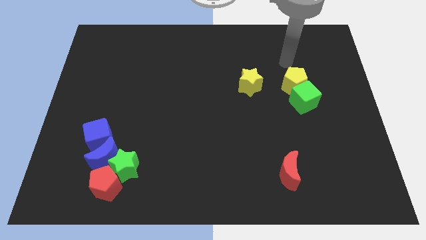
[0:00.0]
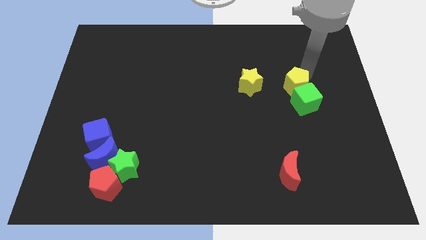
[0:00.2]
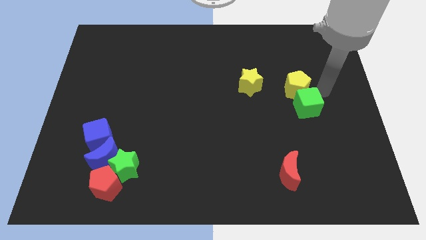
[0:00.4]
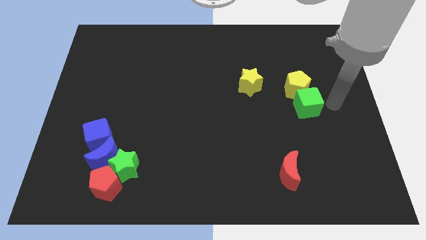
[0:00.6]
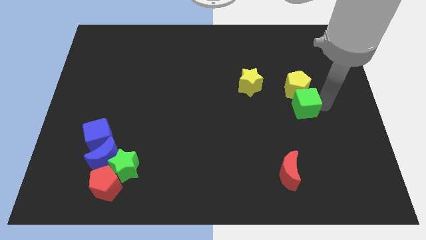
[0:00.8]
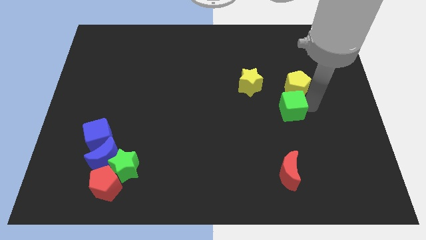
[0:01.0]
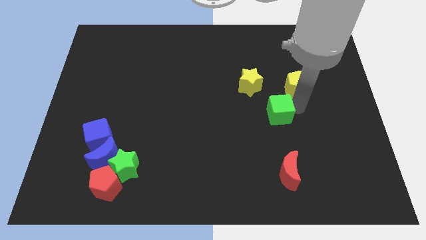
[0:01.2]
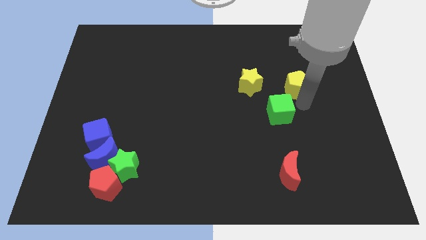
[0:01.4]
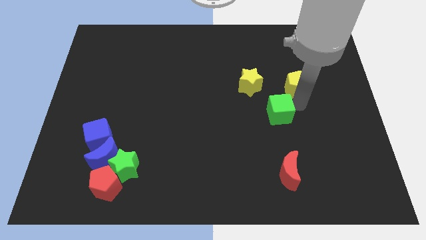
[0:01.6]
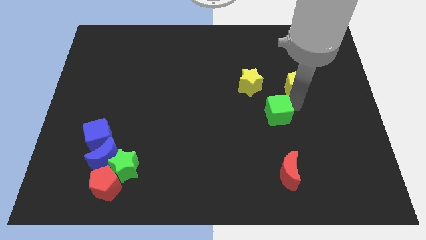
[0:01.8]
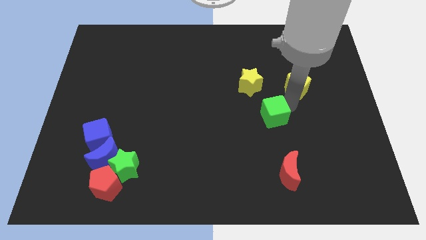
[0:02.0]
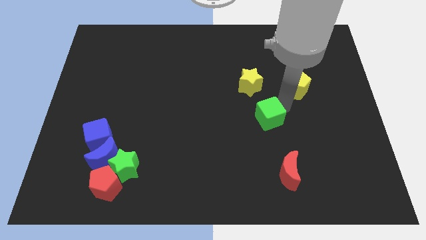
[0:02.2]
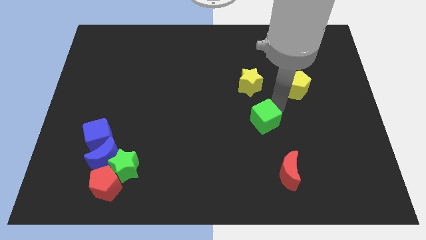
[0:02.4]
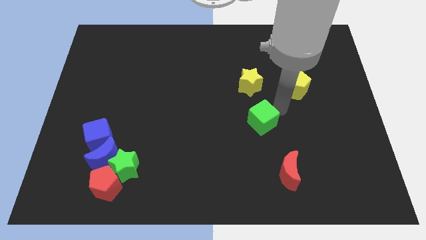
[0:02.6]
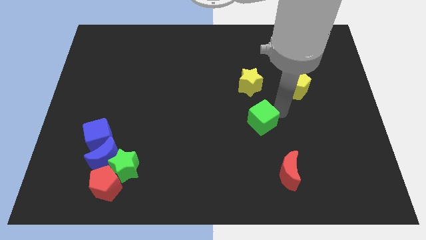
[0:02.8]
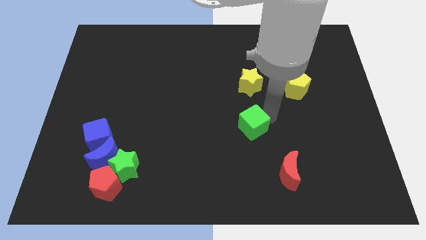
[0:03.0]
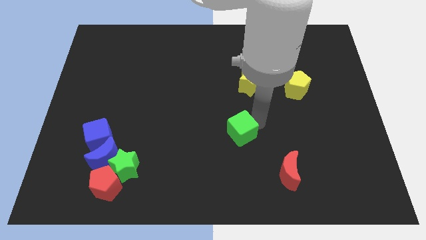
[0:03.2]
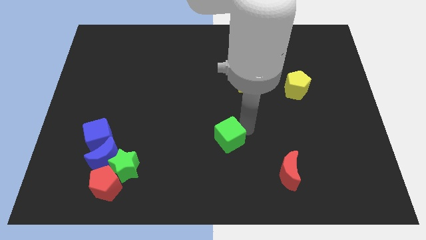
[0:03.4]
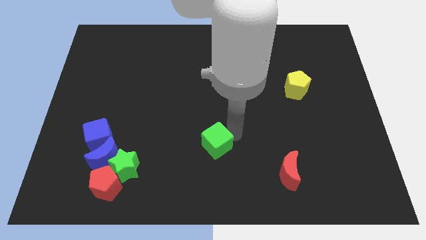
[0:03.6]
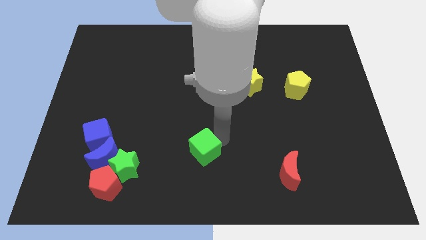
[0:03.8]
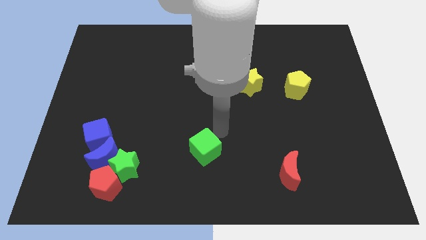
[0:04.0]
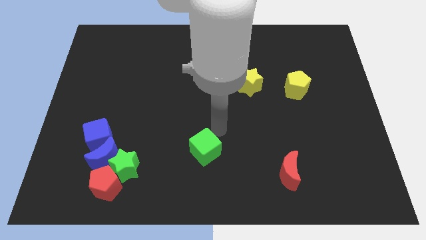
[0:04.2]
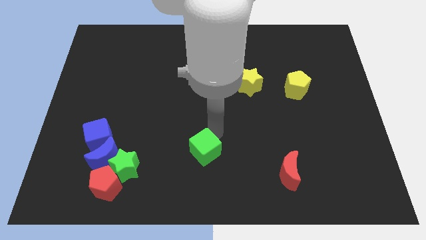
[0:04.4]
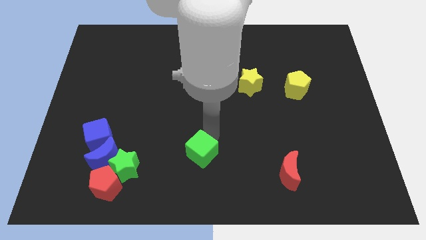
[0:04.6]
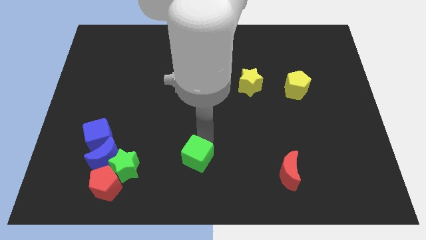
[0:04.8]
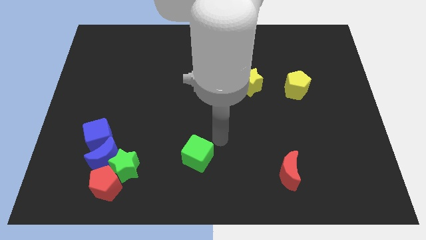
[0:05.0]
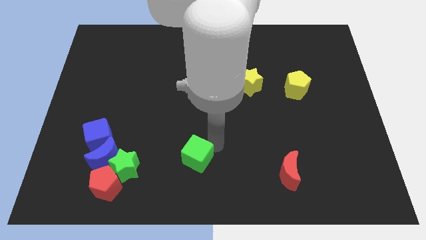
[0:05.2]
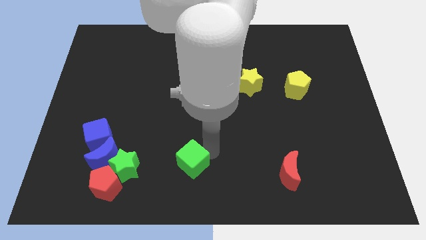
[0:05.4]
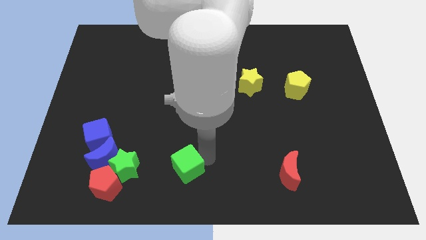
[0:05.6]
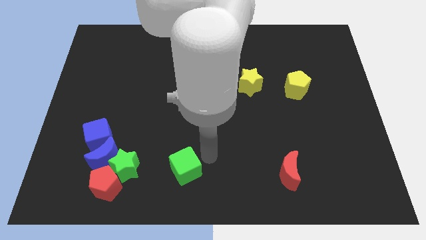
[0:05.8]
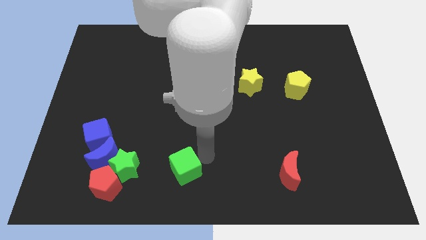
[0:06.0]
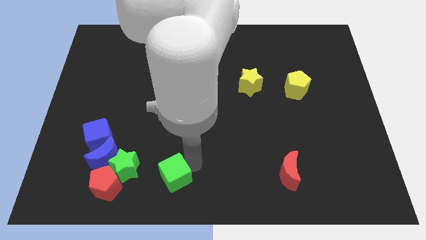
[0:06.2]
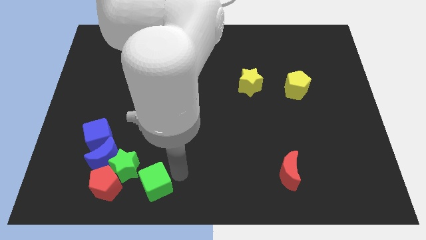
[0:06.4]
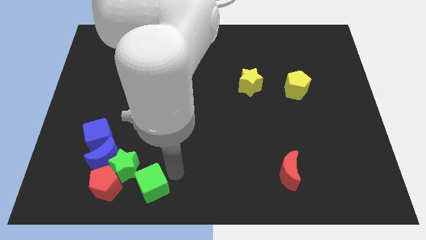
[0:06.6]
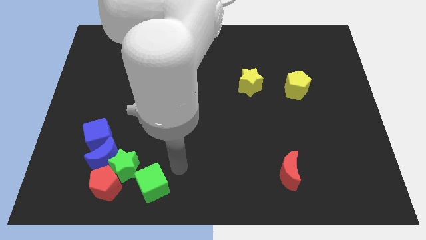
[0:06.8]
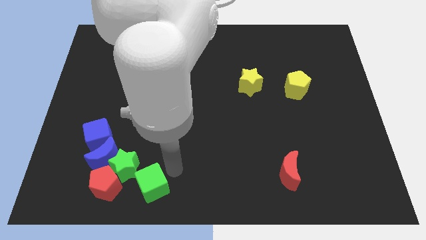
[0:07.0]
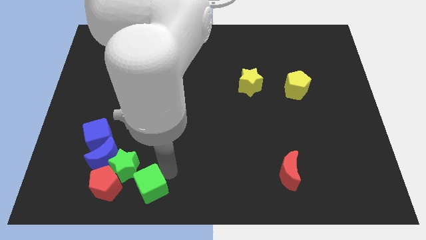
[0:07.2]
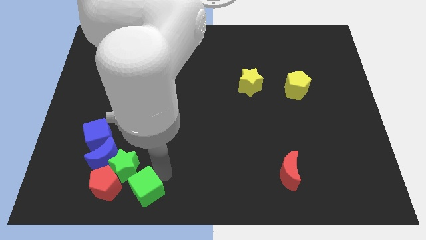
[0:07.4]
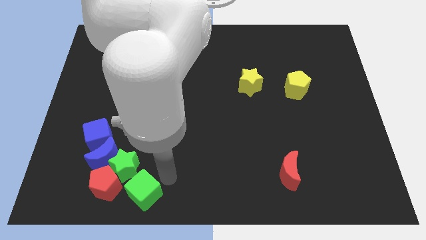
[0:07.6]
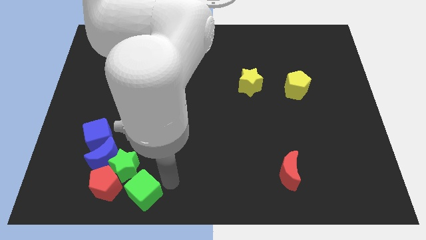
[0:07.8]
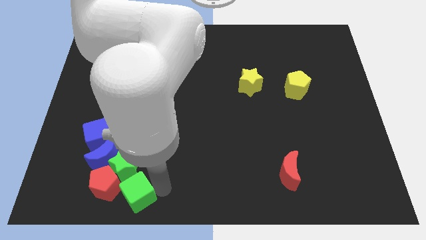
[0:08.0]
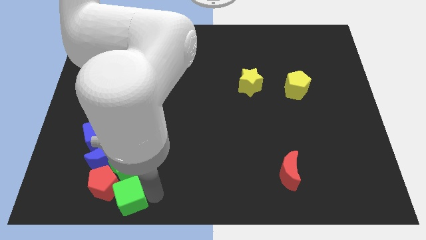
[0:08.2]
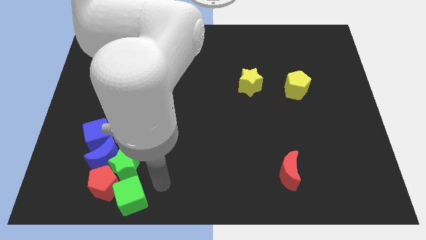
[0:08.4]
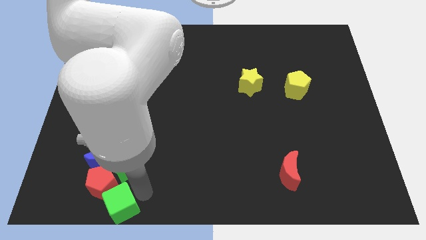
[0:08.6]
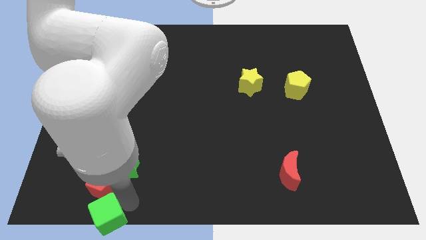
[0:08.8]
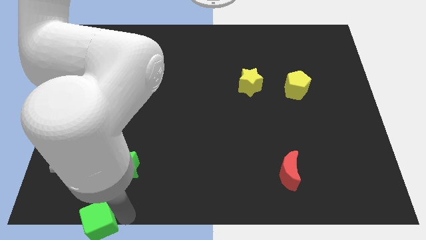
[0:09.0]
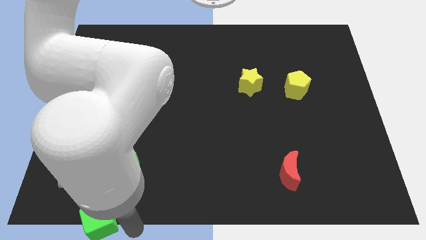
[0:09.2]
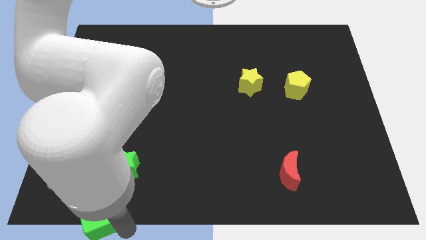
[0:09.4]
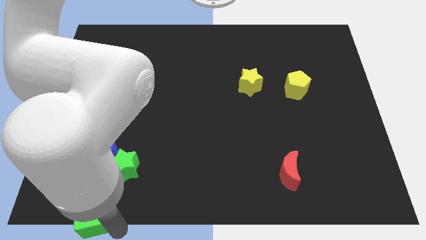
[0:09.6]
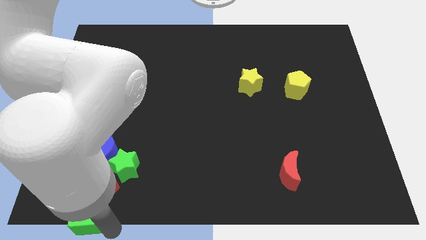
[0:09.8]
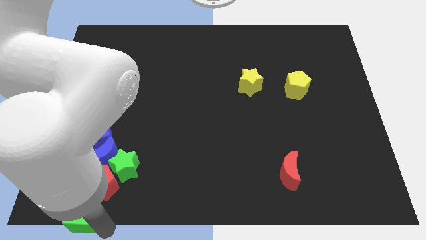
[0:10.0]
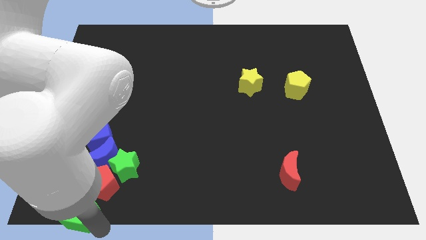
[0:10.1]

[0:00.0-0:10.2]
push the green cube to the bottom left

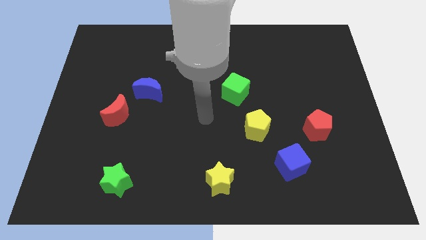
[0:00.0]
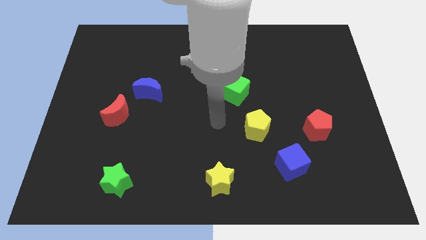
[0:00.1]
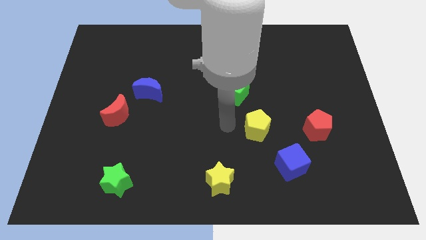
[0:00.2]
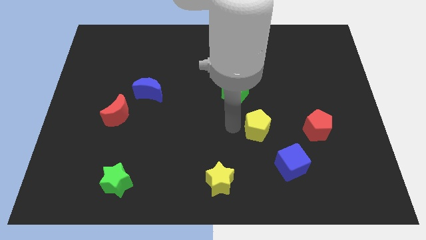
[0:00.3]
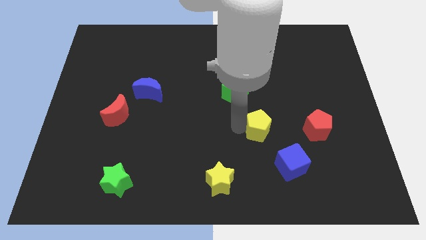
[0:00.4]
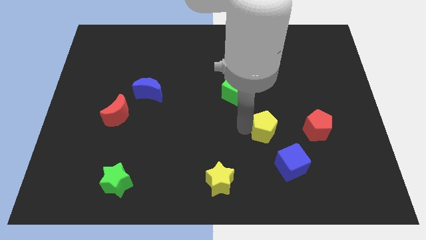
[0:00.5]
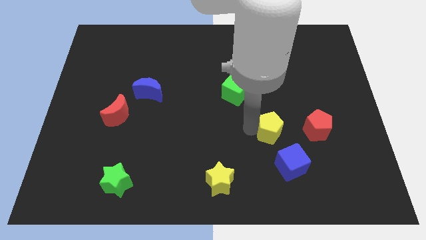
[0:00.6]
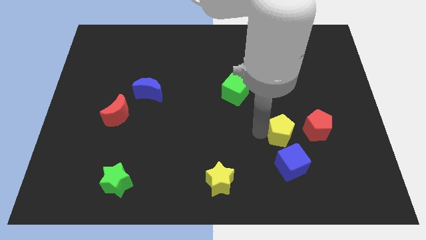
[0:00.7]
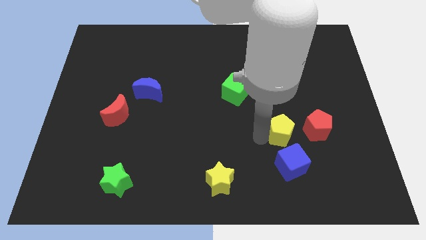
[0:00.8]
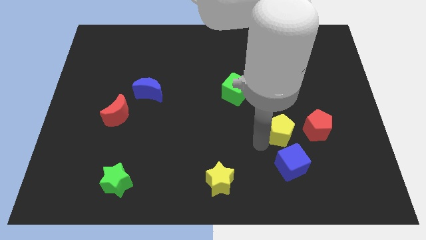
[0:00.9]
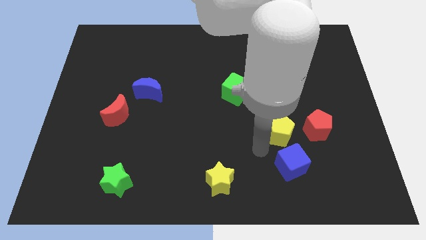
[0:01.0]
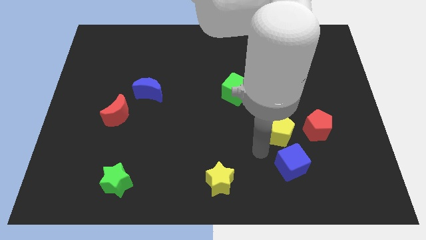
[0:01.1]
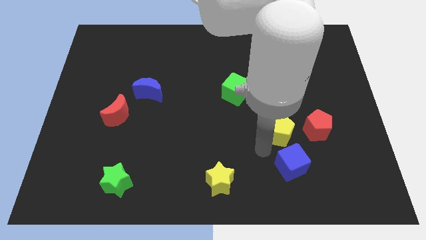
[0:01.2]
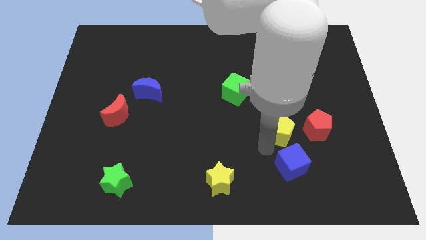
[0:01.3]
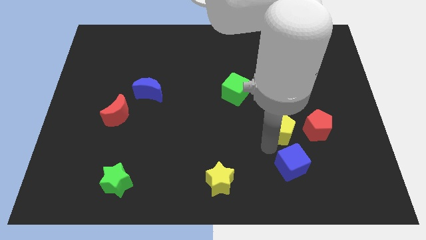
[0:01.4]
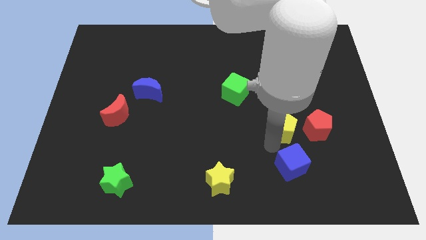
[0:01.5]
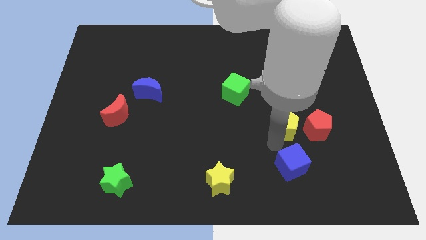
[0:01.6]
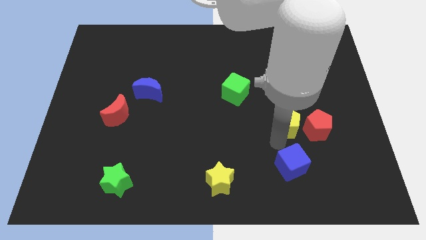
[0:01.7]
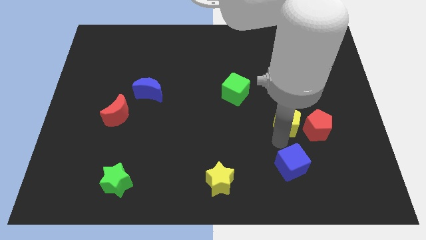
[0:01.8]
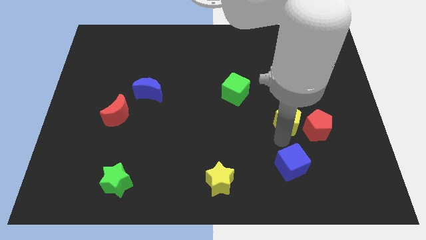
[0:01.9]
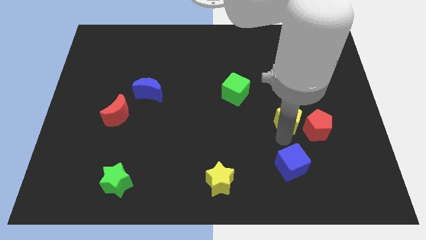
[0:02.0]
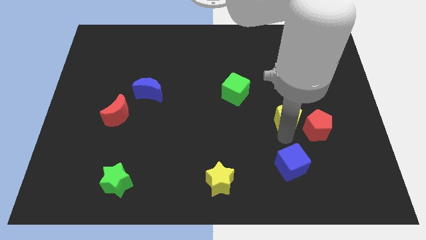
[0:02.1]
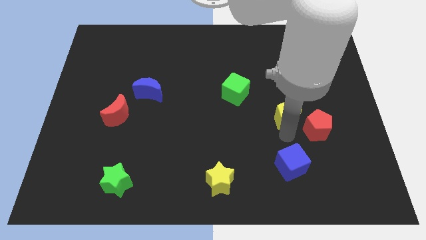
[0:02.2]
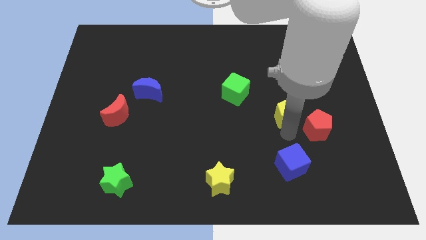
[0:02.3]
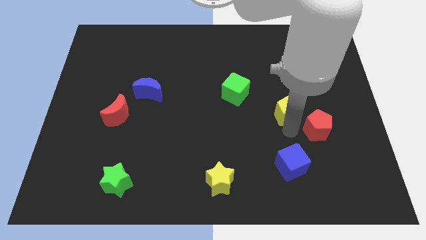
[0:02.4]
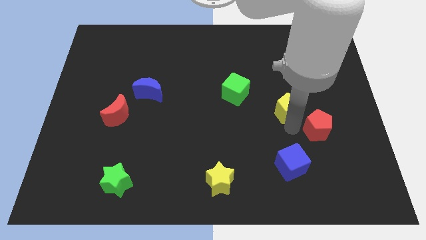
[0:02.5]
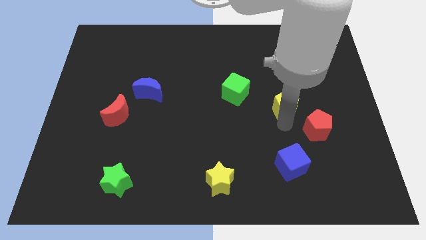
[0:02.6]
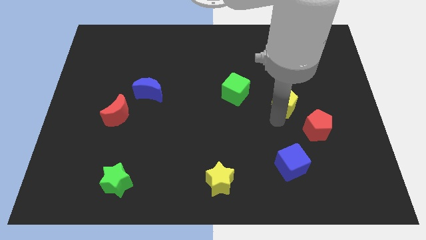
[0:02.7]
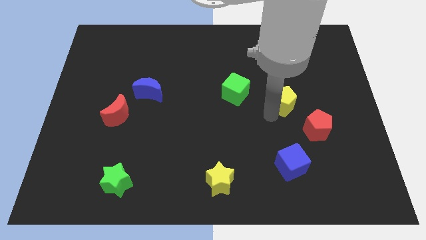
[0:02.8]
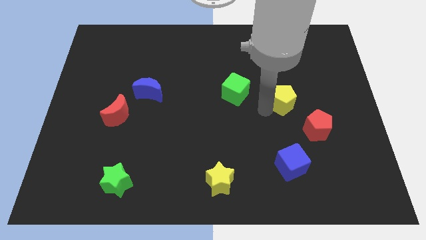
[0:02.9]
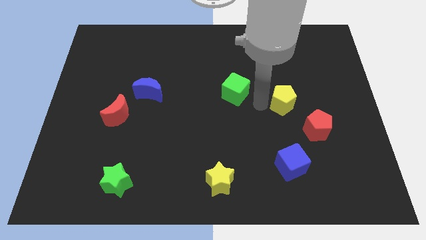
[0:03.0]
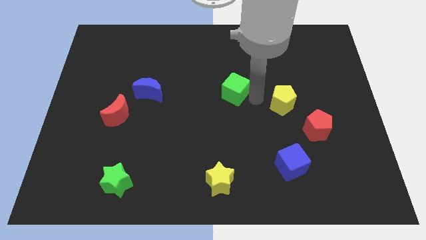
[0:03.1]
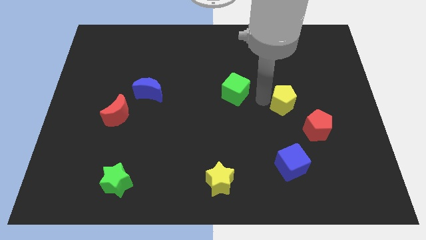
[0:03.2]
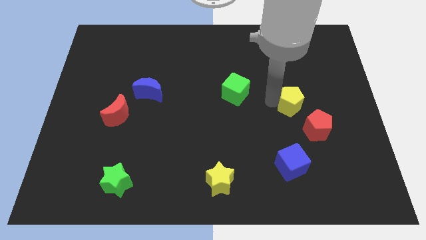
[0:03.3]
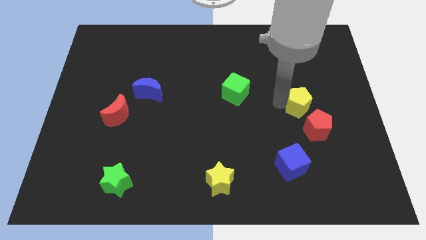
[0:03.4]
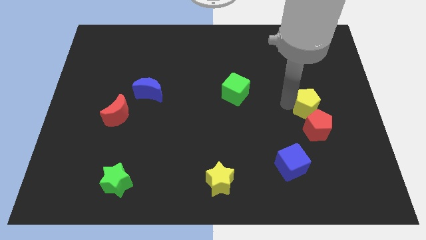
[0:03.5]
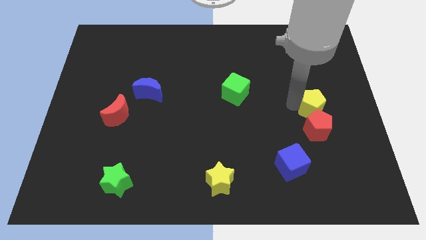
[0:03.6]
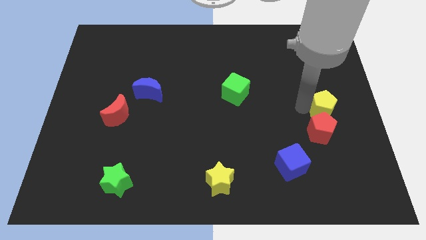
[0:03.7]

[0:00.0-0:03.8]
slide the yellow pentagon to the right side of the board
